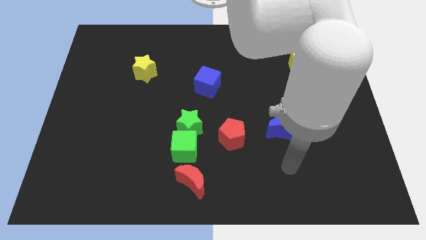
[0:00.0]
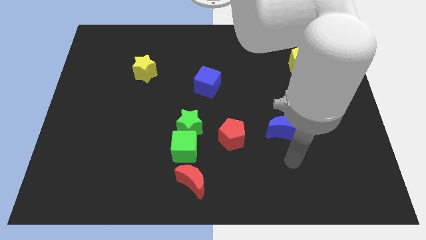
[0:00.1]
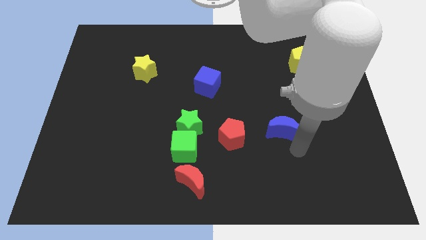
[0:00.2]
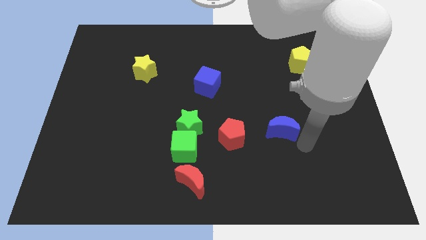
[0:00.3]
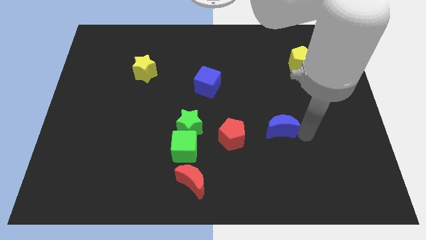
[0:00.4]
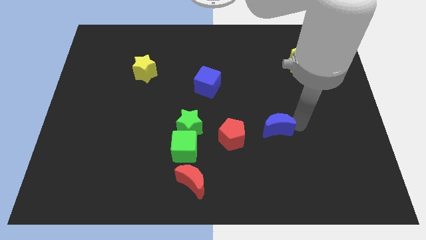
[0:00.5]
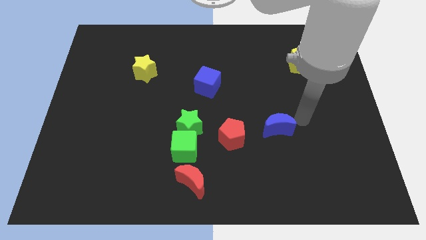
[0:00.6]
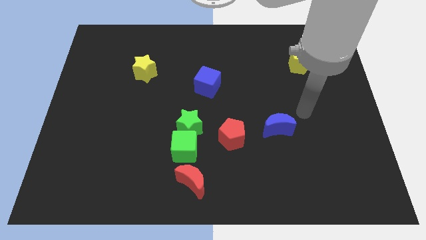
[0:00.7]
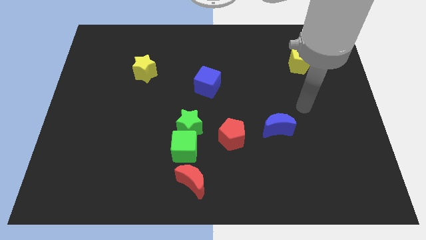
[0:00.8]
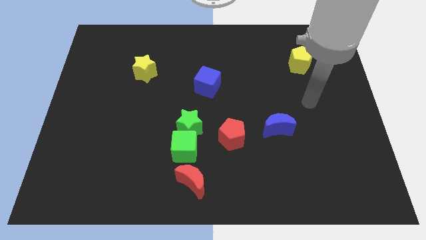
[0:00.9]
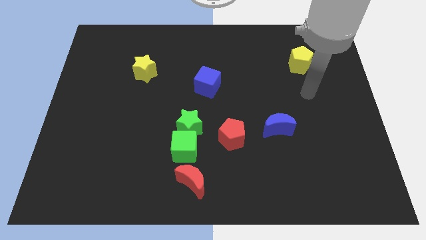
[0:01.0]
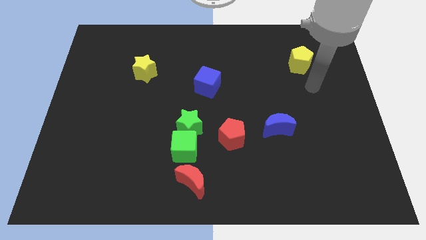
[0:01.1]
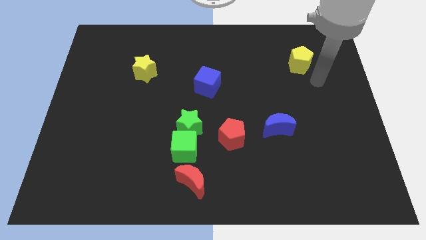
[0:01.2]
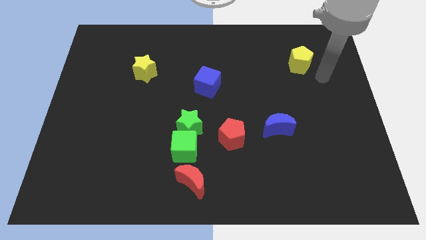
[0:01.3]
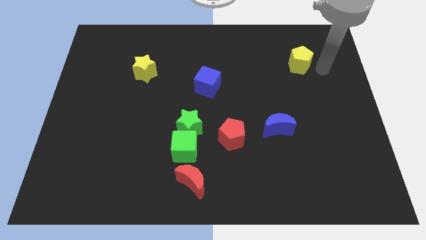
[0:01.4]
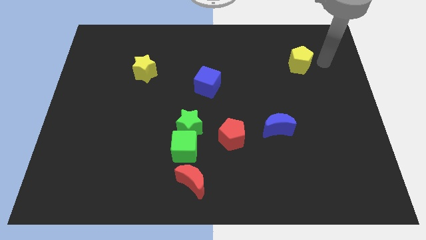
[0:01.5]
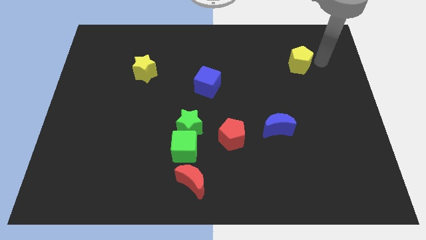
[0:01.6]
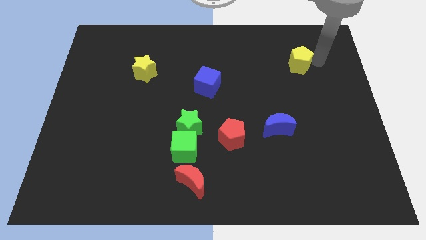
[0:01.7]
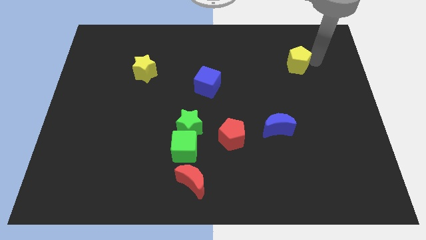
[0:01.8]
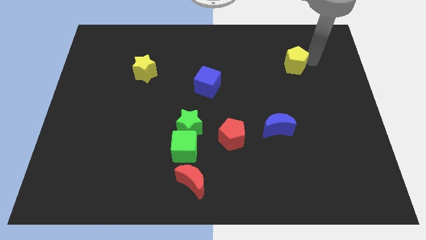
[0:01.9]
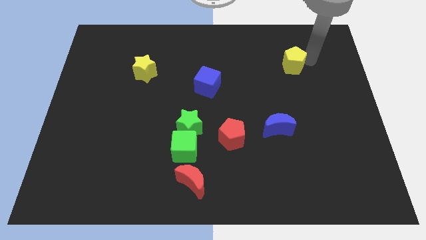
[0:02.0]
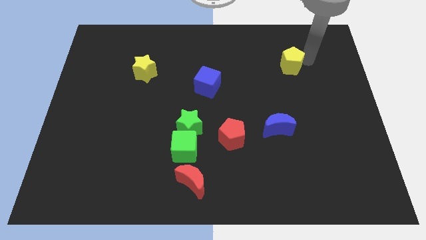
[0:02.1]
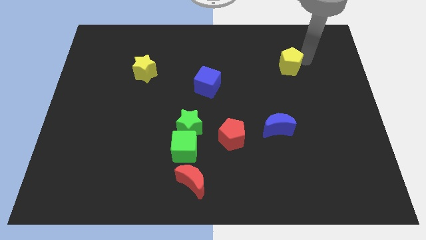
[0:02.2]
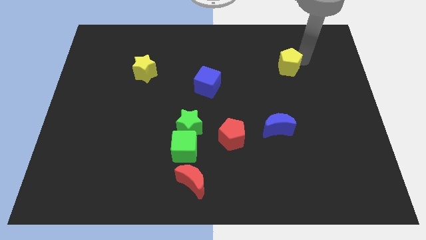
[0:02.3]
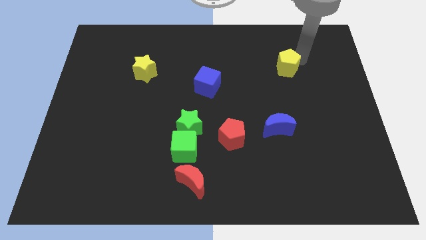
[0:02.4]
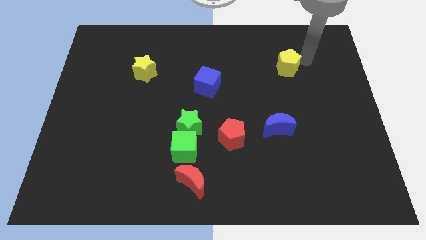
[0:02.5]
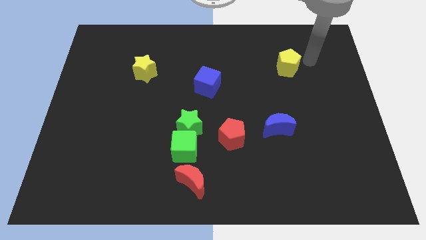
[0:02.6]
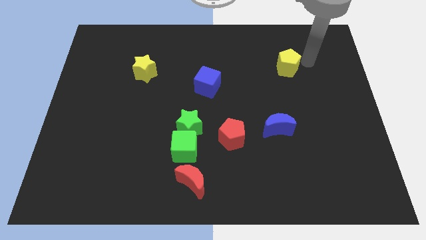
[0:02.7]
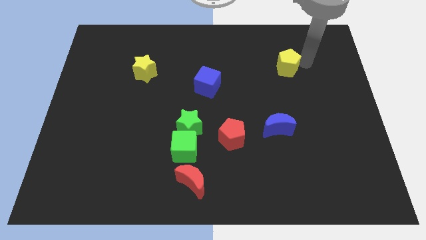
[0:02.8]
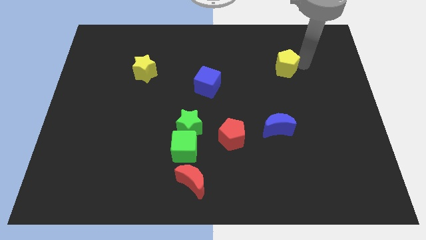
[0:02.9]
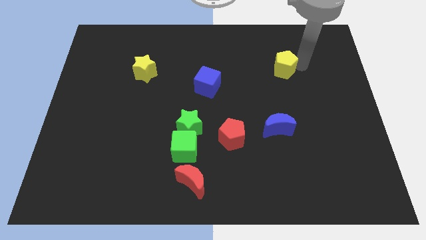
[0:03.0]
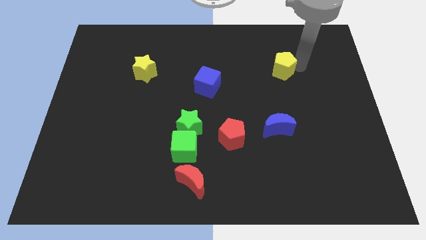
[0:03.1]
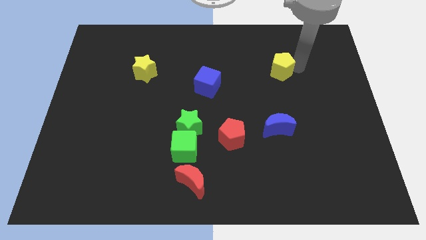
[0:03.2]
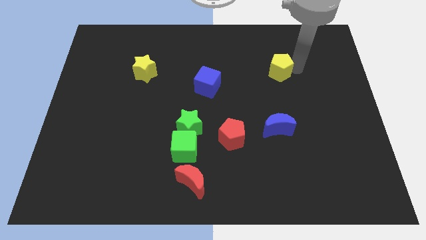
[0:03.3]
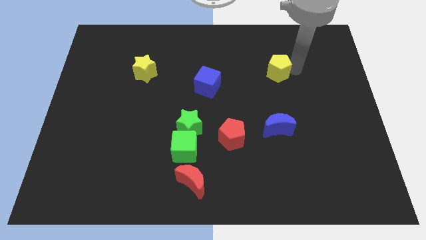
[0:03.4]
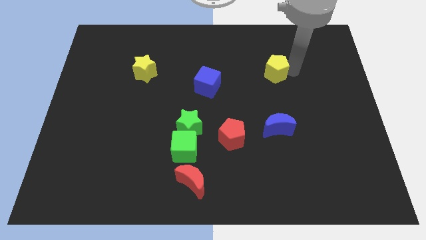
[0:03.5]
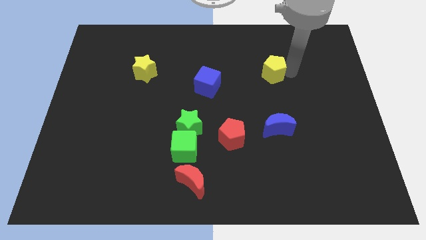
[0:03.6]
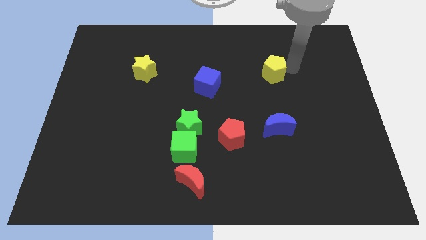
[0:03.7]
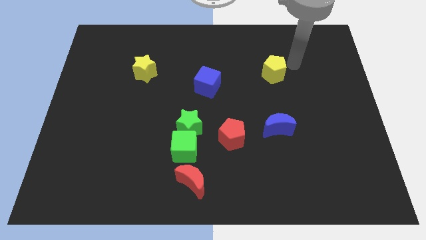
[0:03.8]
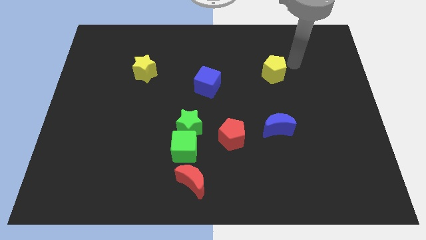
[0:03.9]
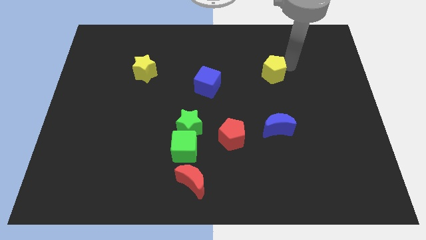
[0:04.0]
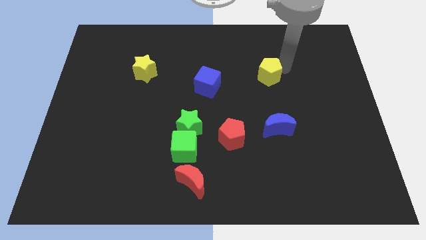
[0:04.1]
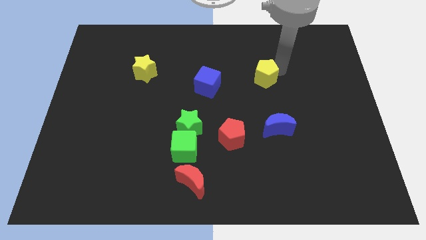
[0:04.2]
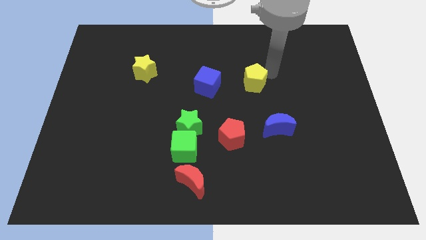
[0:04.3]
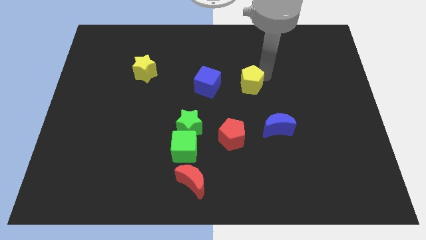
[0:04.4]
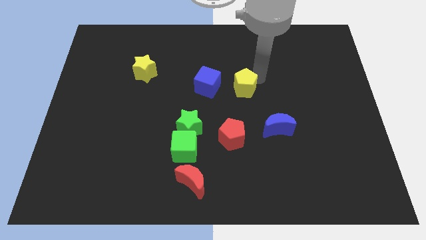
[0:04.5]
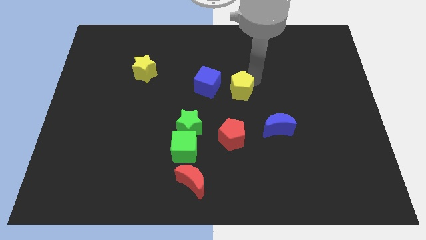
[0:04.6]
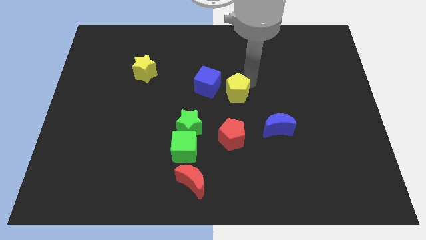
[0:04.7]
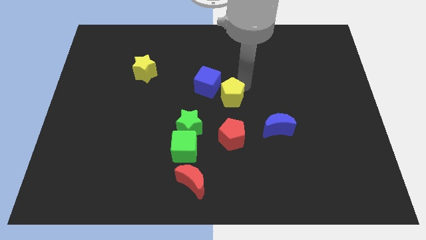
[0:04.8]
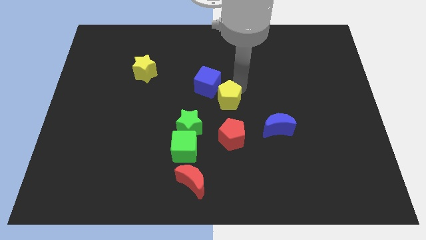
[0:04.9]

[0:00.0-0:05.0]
push the yellow pentagon down and left

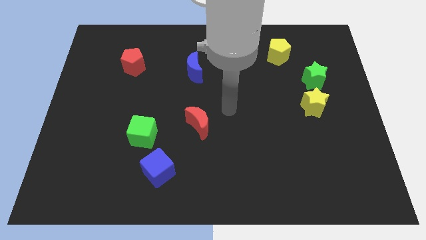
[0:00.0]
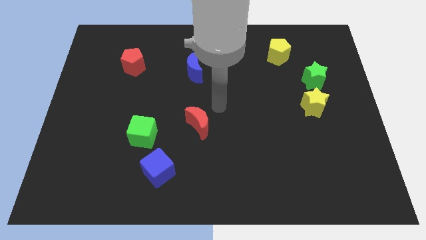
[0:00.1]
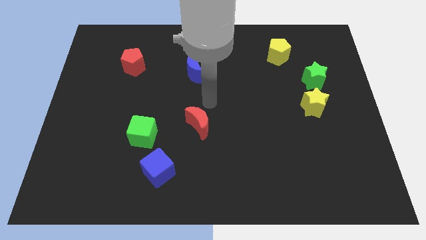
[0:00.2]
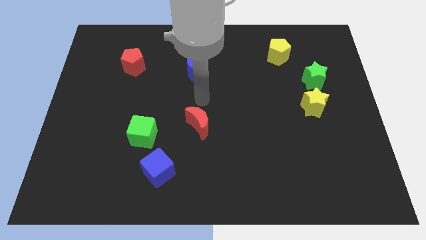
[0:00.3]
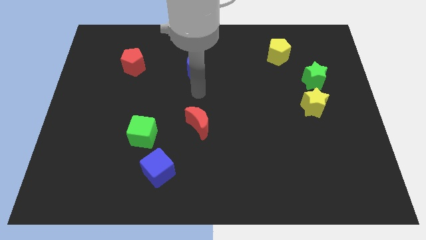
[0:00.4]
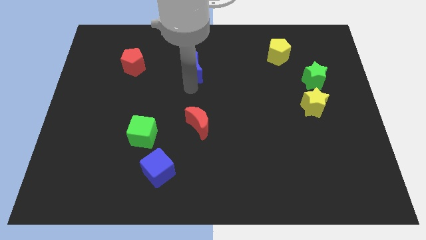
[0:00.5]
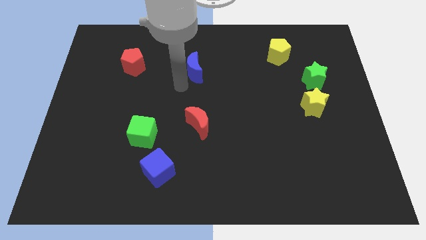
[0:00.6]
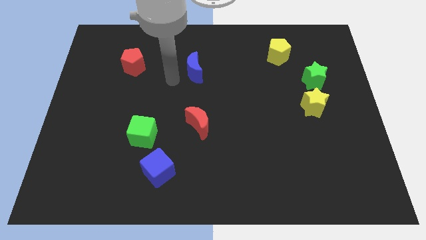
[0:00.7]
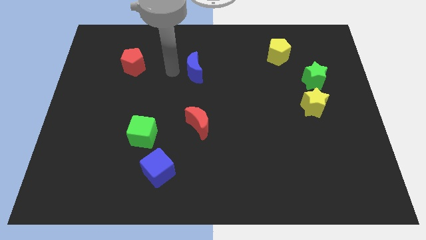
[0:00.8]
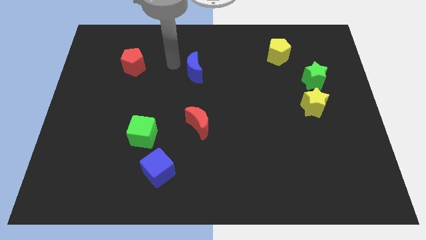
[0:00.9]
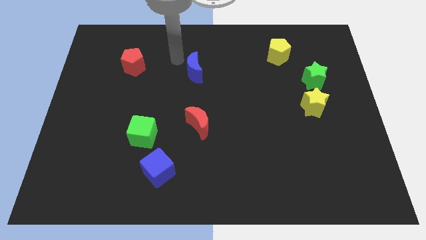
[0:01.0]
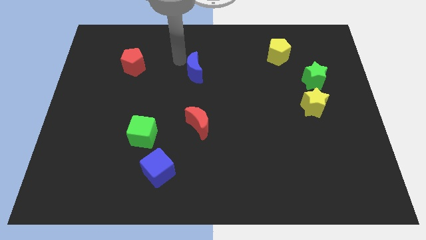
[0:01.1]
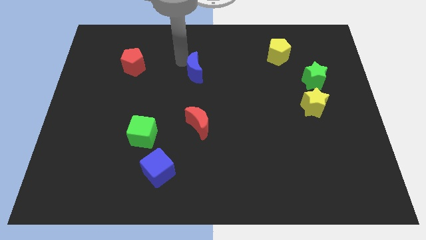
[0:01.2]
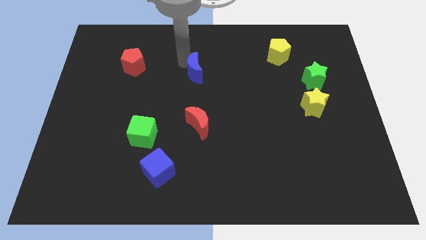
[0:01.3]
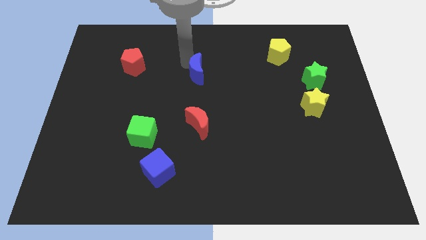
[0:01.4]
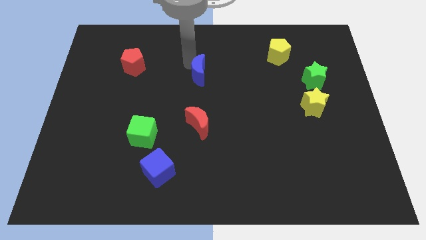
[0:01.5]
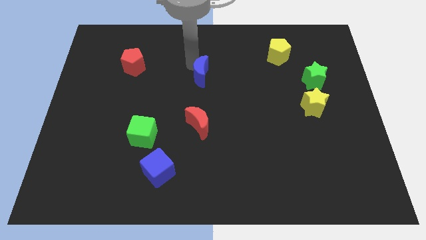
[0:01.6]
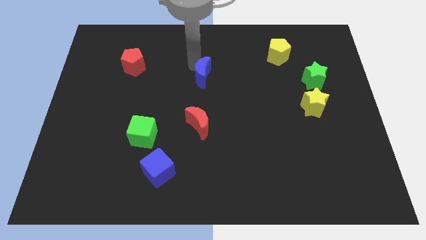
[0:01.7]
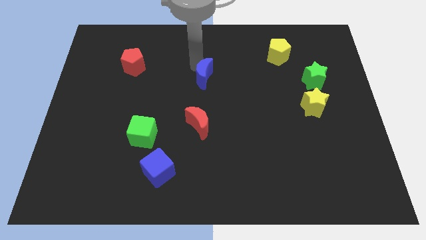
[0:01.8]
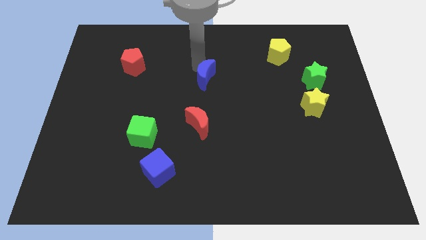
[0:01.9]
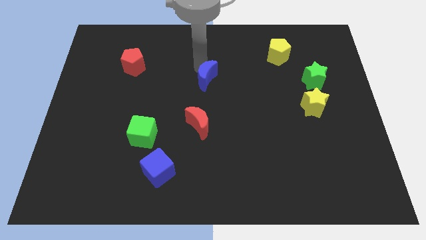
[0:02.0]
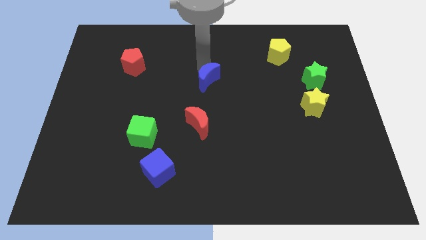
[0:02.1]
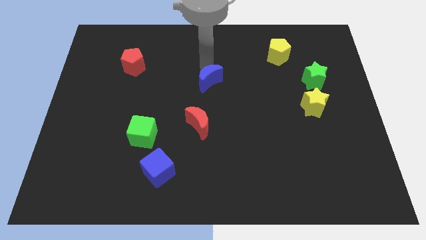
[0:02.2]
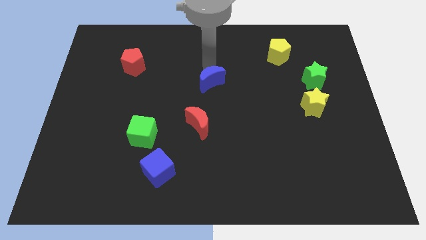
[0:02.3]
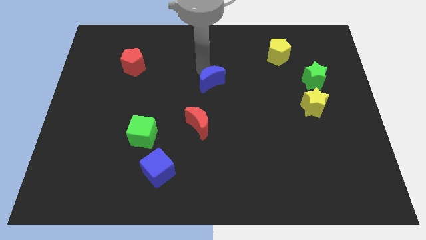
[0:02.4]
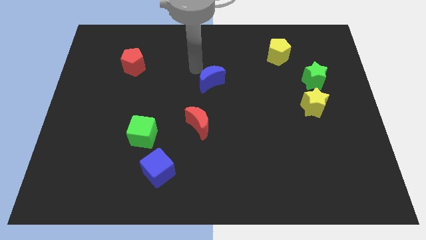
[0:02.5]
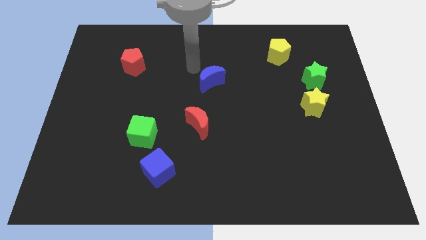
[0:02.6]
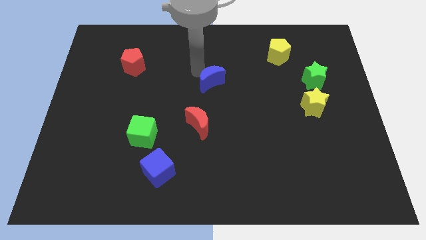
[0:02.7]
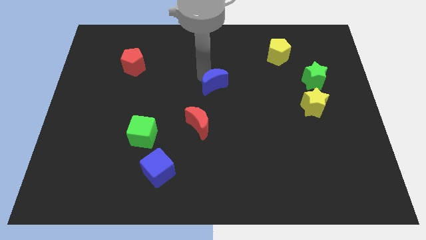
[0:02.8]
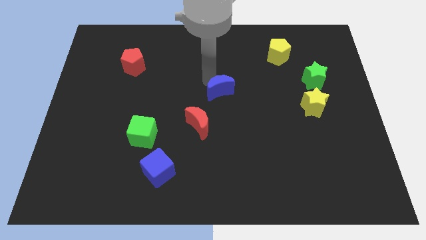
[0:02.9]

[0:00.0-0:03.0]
push the blue moon diagonally downwards and to the right a little
